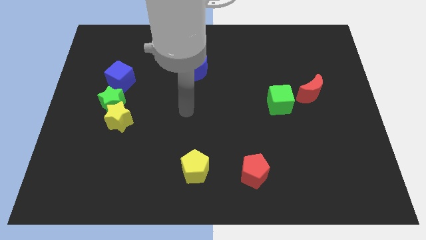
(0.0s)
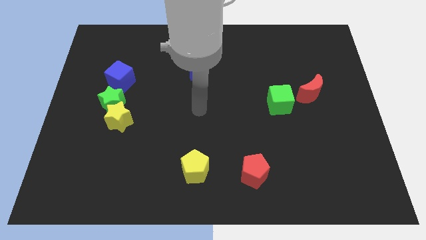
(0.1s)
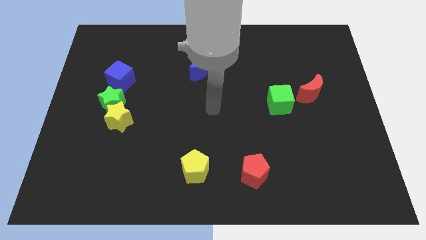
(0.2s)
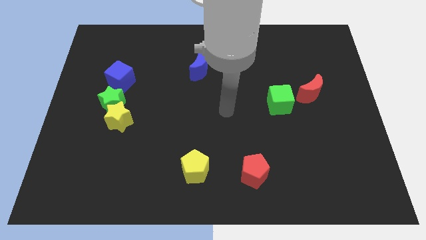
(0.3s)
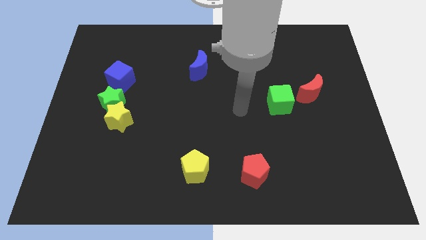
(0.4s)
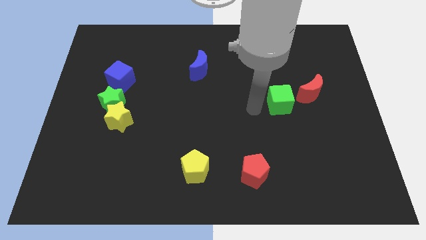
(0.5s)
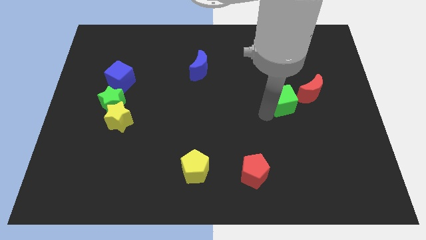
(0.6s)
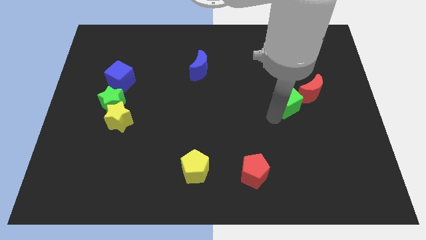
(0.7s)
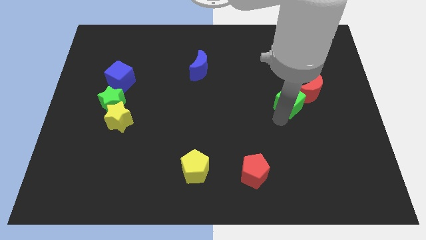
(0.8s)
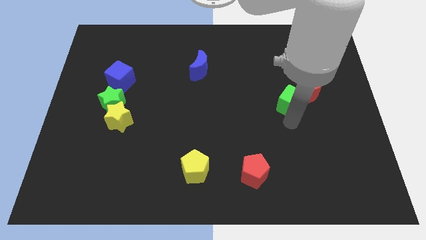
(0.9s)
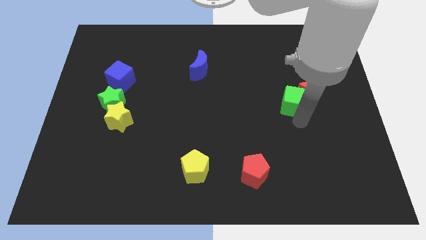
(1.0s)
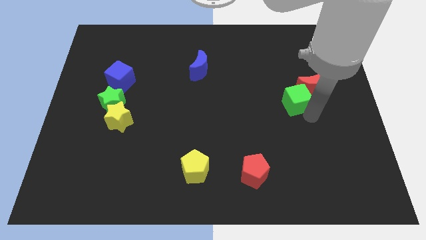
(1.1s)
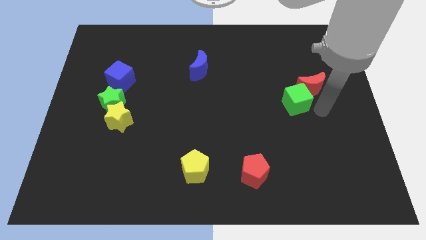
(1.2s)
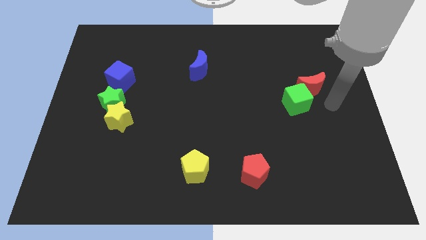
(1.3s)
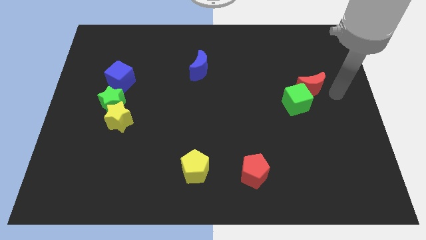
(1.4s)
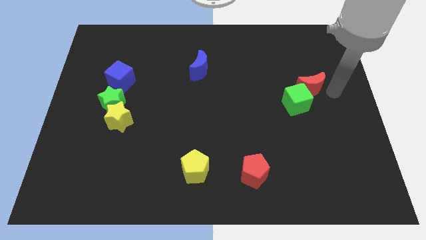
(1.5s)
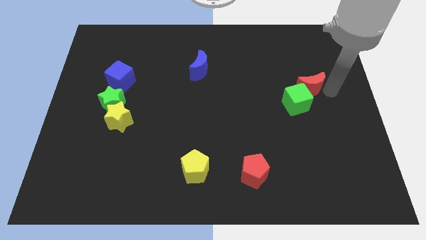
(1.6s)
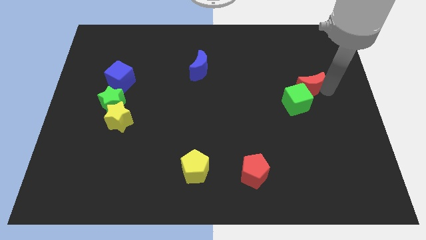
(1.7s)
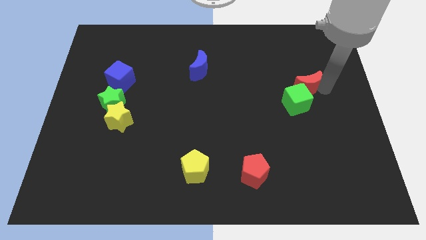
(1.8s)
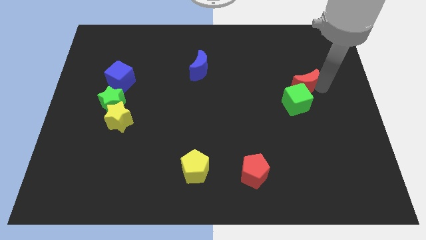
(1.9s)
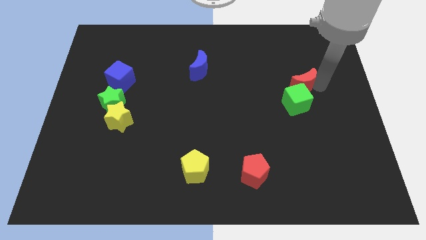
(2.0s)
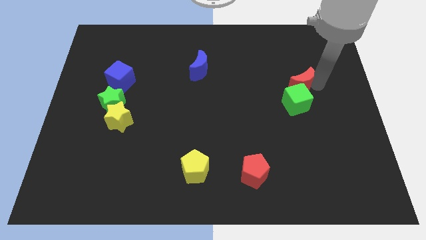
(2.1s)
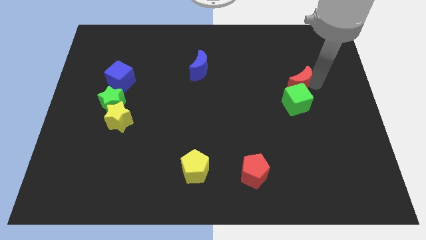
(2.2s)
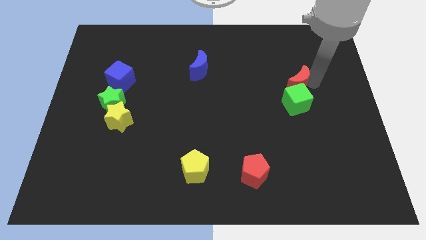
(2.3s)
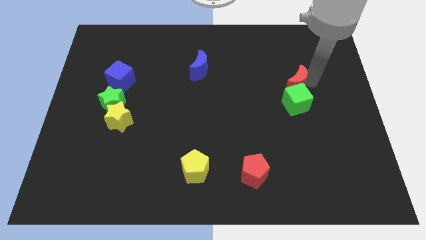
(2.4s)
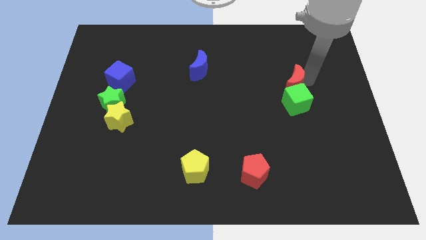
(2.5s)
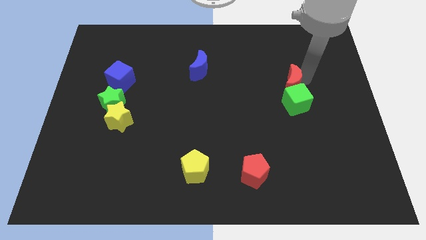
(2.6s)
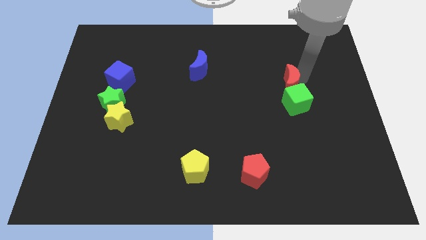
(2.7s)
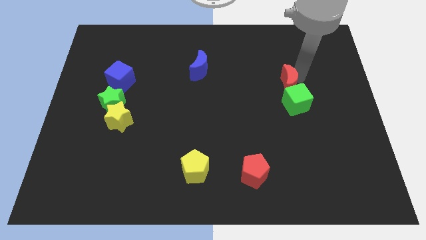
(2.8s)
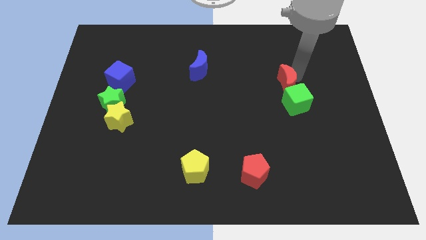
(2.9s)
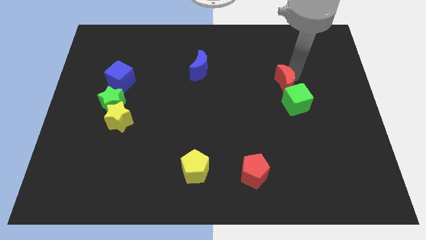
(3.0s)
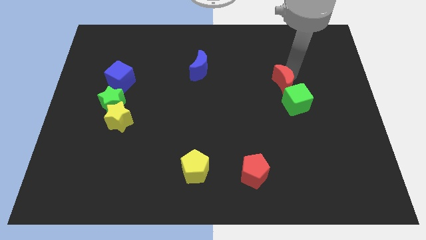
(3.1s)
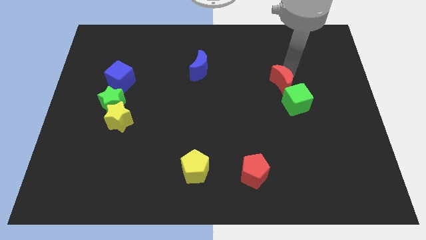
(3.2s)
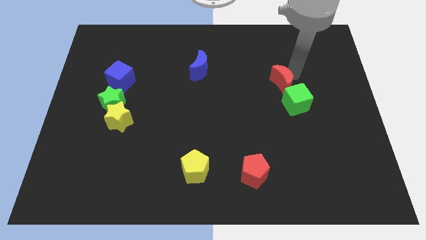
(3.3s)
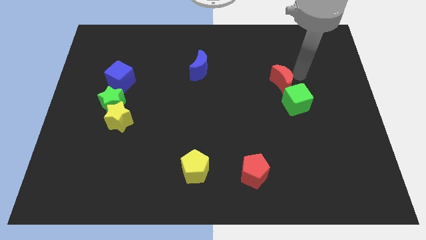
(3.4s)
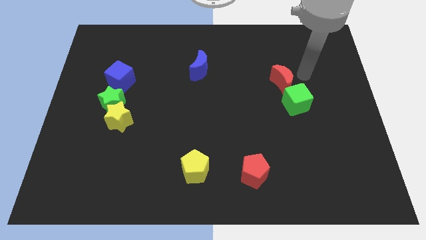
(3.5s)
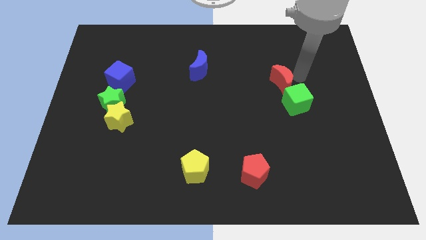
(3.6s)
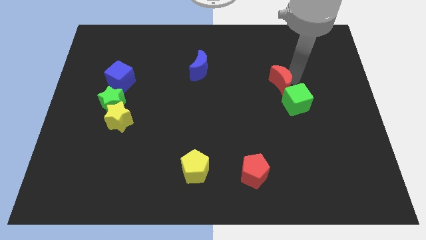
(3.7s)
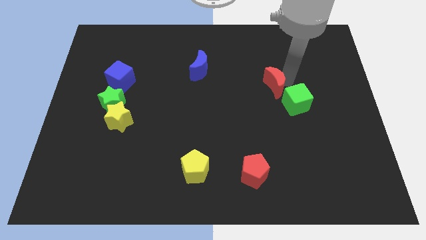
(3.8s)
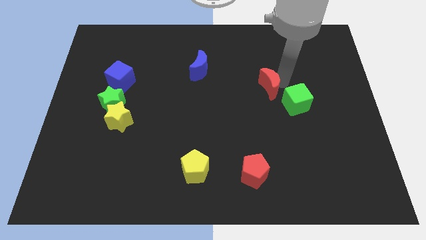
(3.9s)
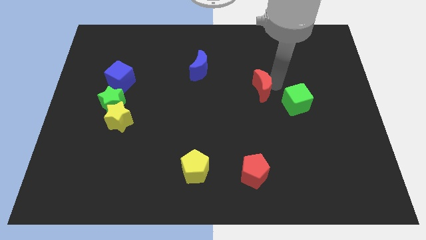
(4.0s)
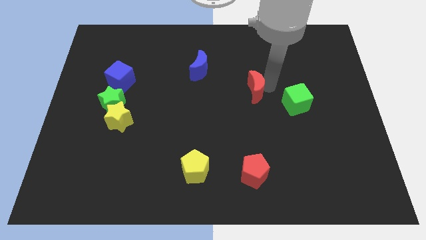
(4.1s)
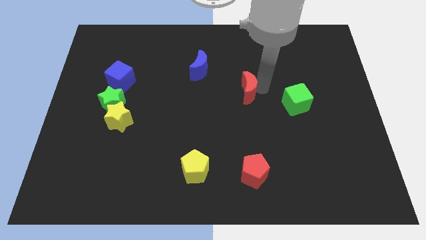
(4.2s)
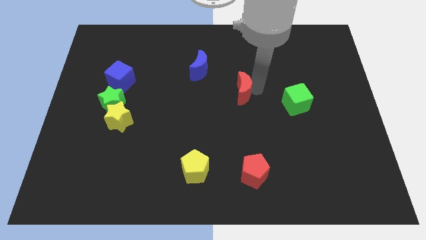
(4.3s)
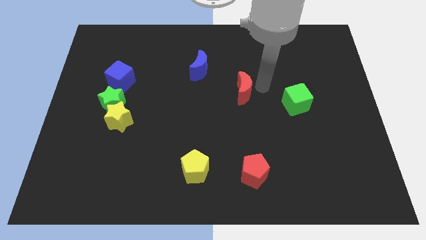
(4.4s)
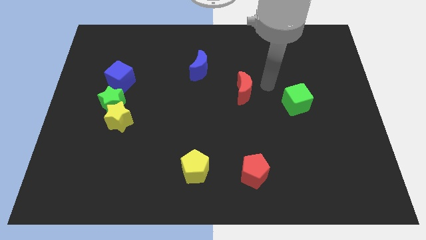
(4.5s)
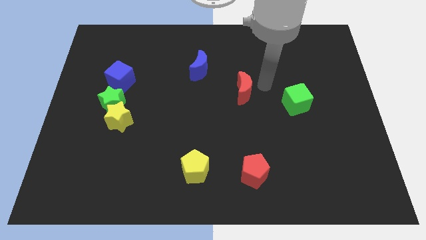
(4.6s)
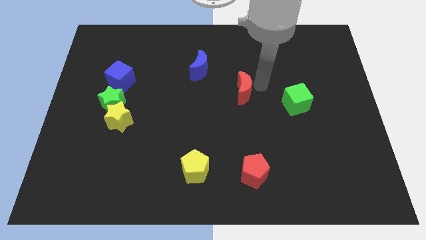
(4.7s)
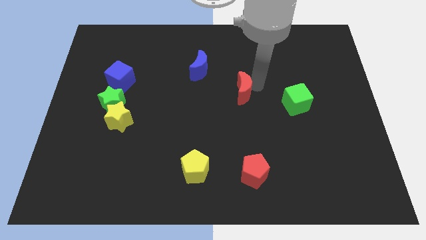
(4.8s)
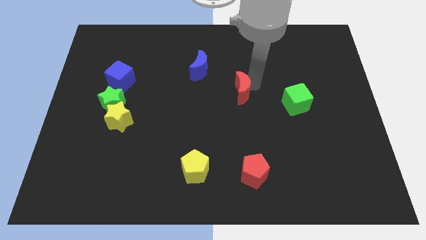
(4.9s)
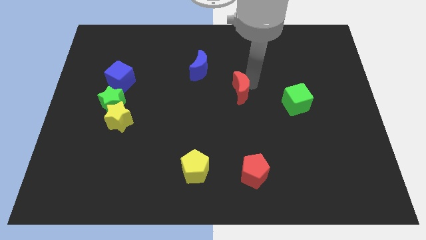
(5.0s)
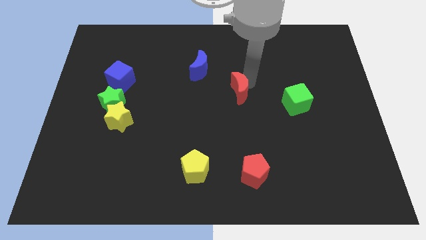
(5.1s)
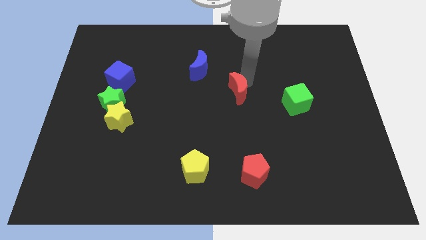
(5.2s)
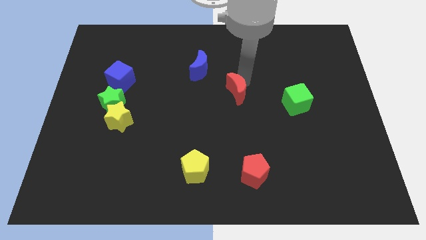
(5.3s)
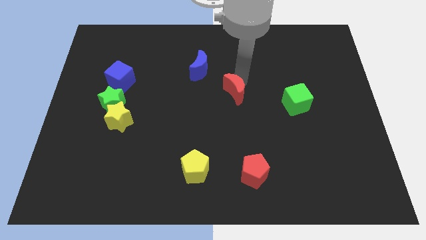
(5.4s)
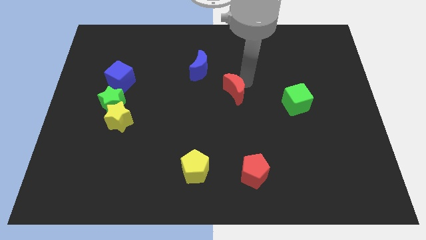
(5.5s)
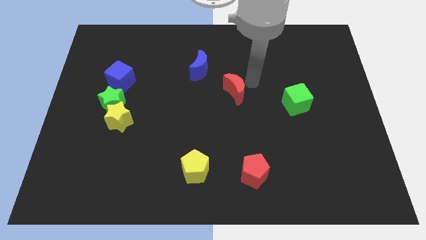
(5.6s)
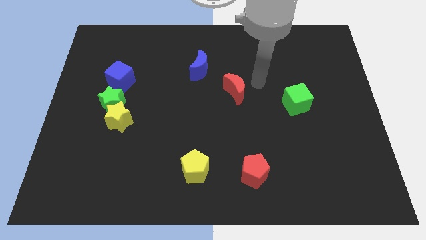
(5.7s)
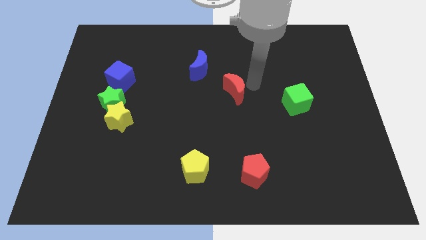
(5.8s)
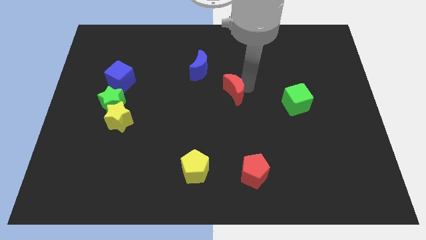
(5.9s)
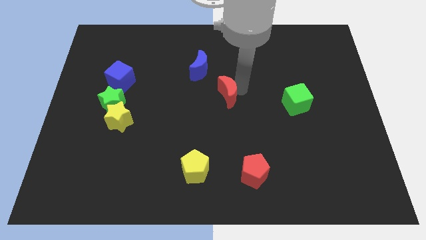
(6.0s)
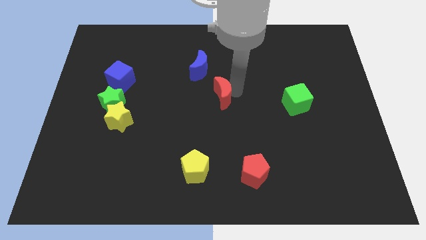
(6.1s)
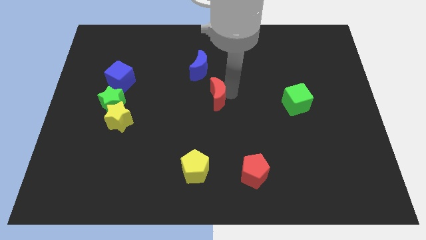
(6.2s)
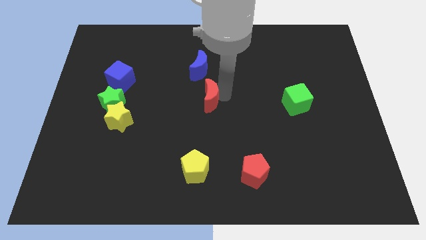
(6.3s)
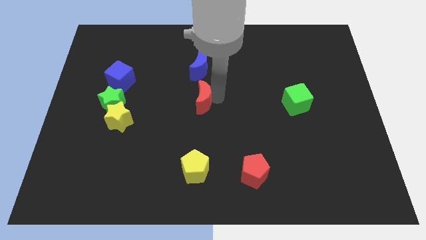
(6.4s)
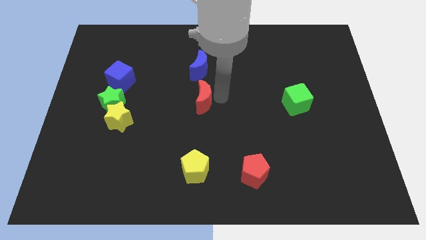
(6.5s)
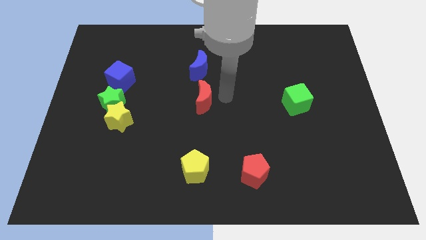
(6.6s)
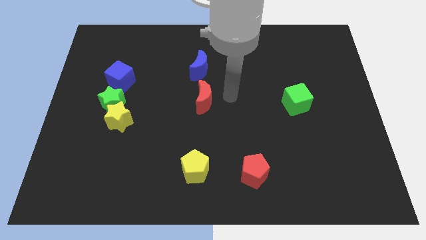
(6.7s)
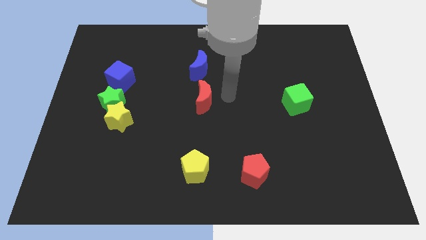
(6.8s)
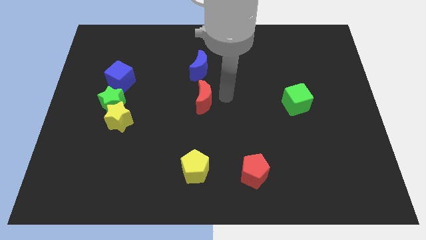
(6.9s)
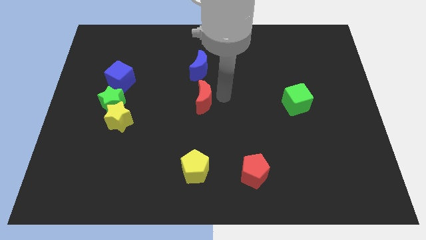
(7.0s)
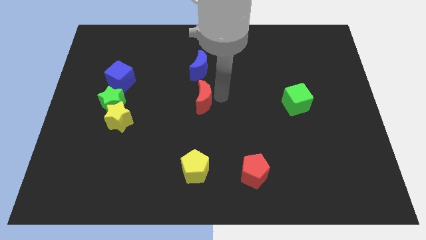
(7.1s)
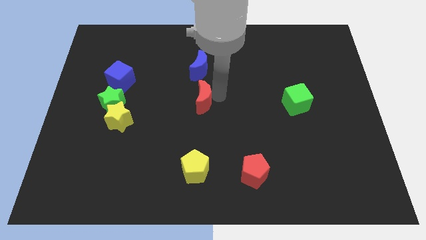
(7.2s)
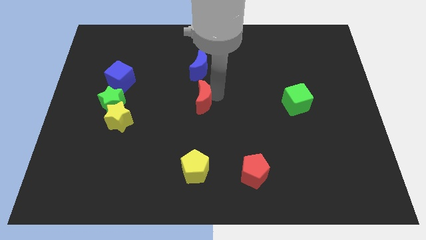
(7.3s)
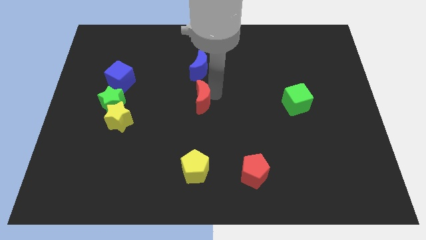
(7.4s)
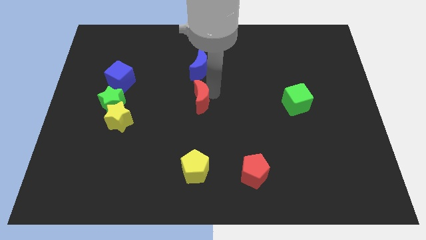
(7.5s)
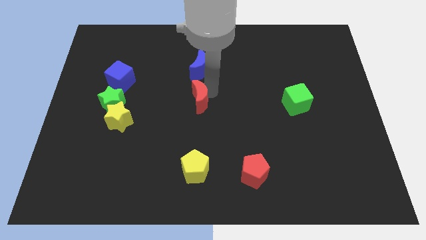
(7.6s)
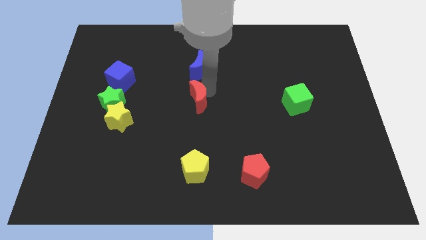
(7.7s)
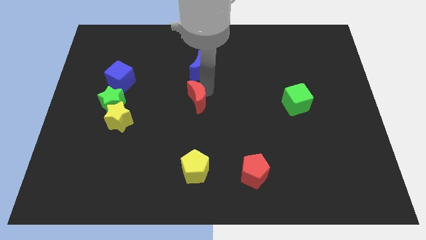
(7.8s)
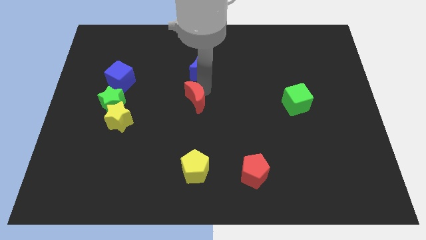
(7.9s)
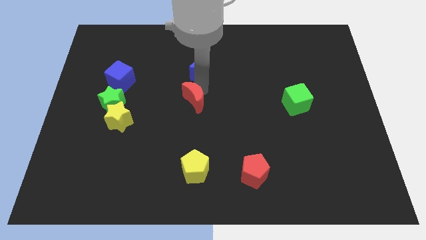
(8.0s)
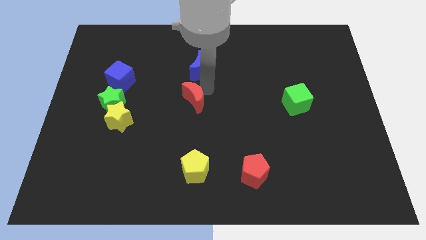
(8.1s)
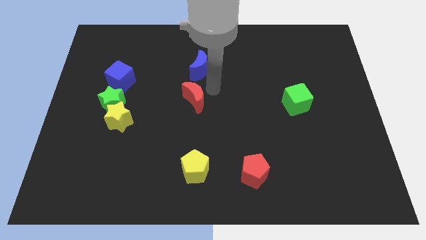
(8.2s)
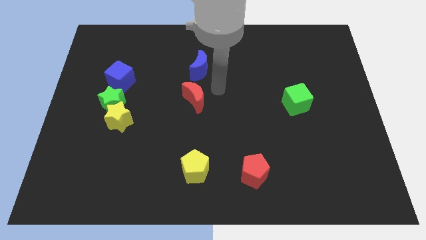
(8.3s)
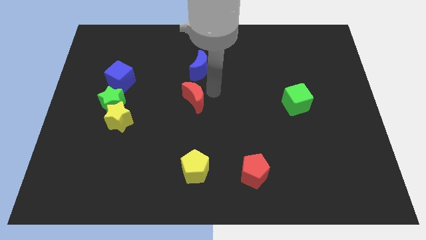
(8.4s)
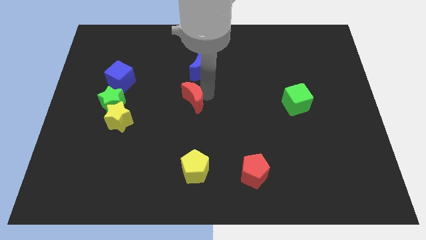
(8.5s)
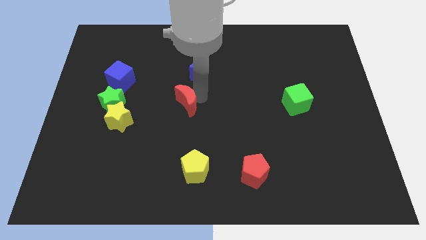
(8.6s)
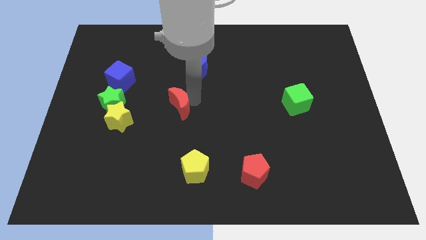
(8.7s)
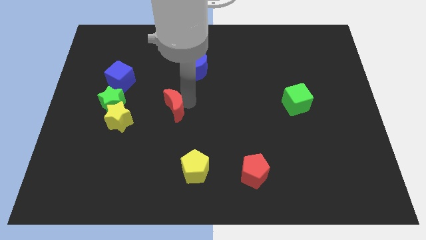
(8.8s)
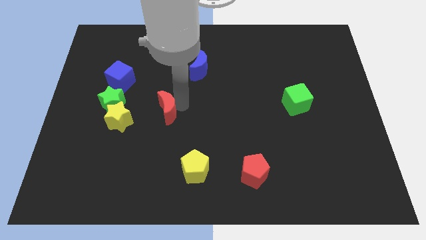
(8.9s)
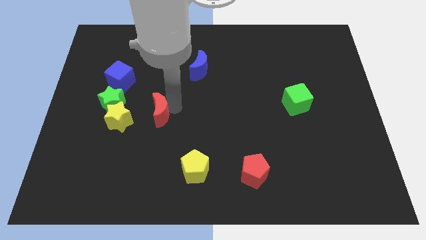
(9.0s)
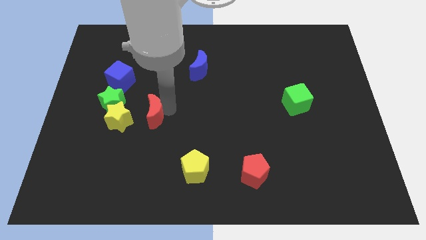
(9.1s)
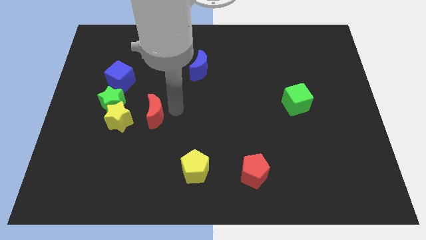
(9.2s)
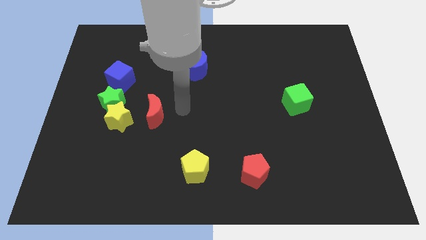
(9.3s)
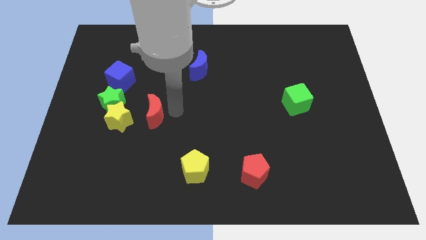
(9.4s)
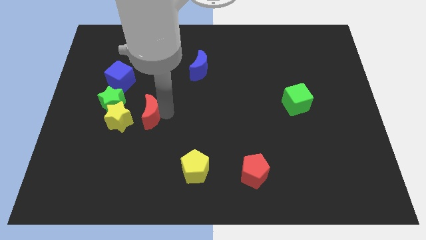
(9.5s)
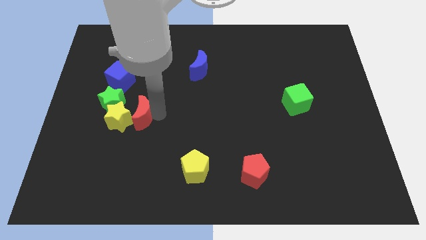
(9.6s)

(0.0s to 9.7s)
push the red moon next to the yellow star
